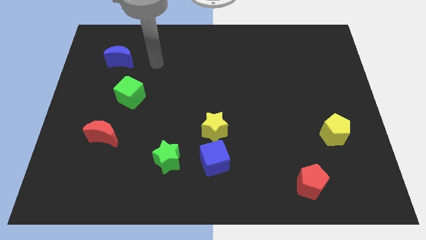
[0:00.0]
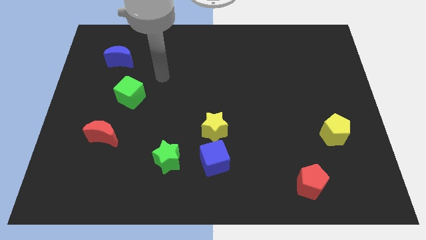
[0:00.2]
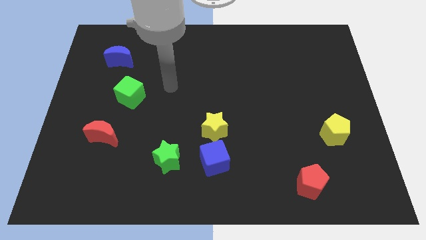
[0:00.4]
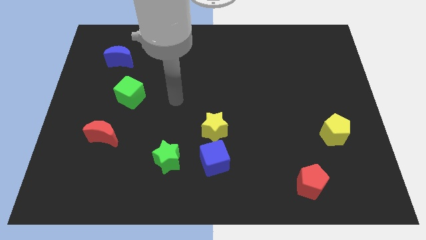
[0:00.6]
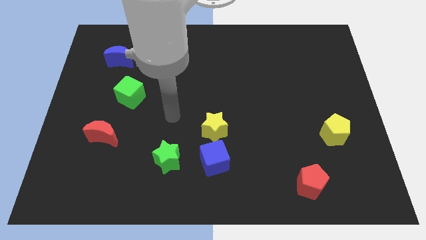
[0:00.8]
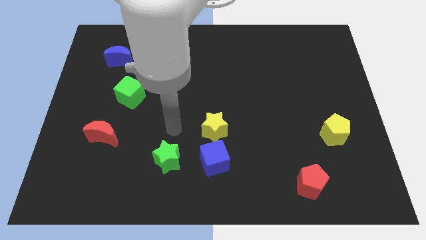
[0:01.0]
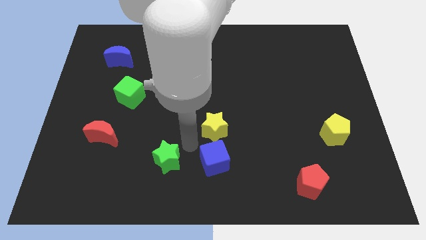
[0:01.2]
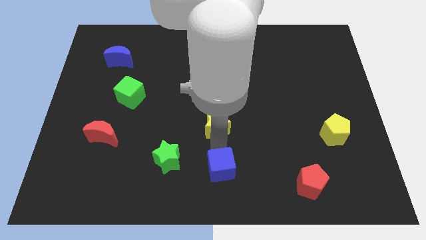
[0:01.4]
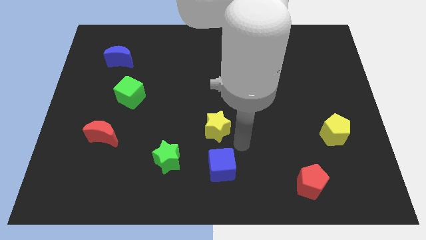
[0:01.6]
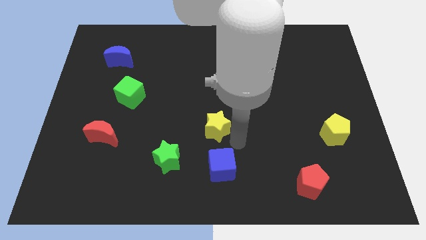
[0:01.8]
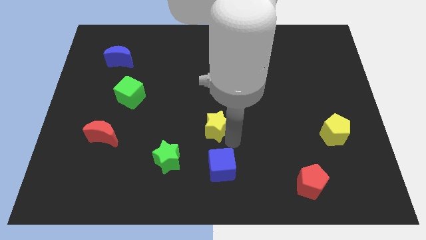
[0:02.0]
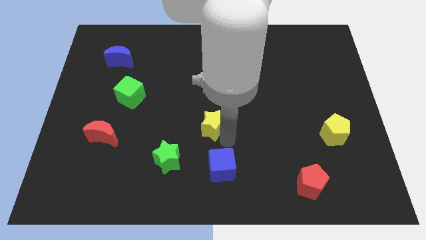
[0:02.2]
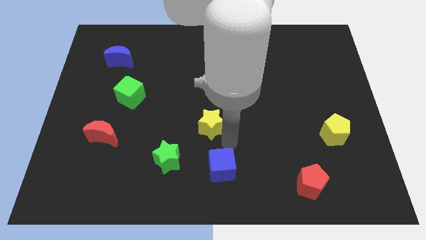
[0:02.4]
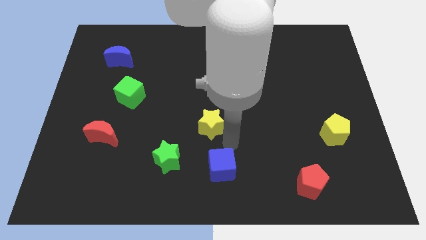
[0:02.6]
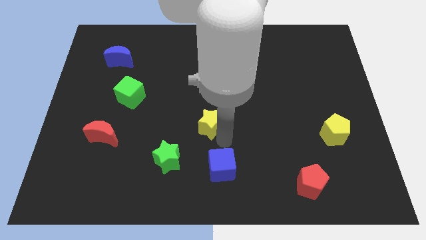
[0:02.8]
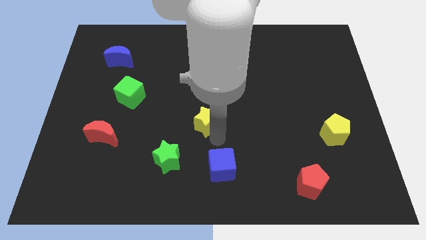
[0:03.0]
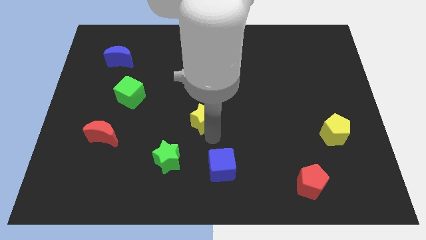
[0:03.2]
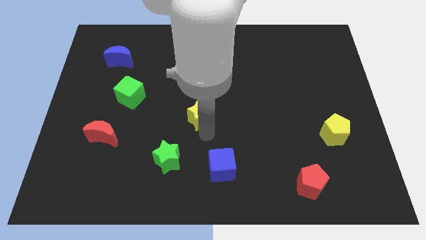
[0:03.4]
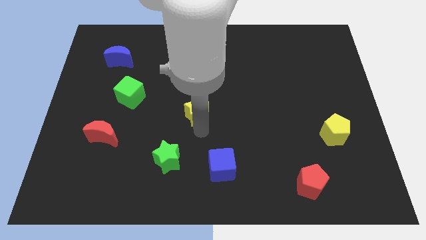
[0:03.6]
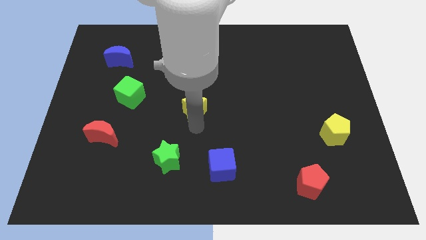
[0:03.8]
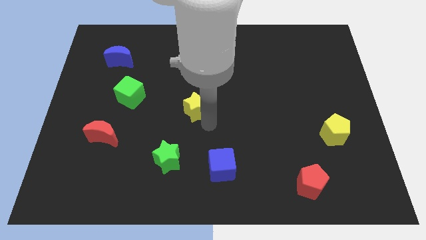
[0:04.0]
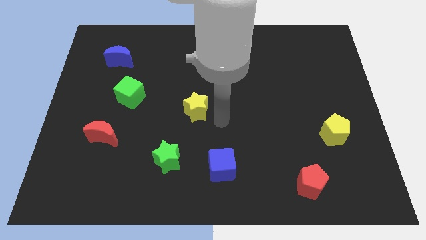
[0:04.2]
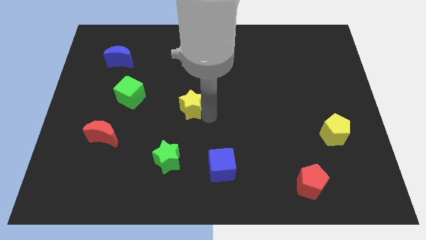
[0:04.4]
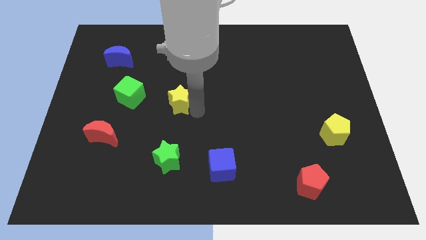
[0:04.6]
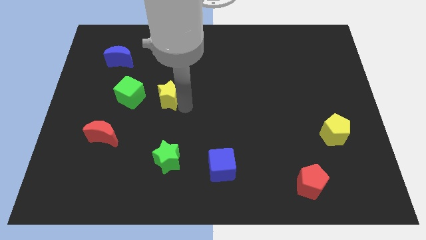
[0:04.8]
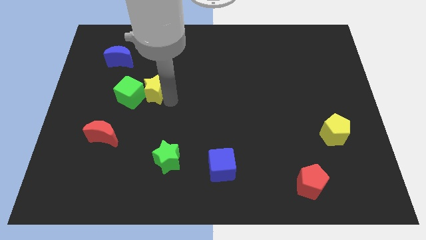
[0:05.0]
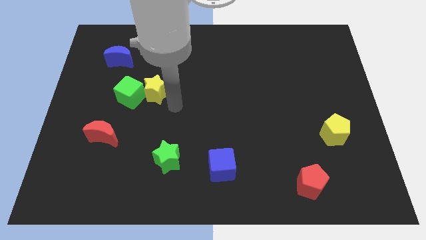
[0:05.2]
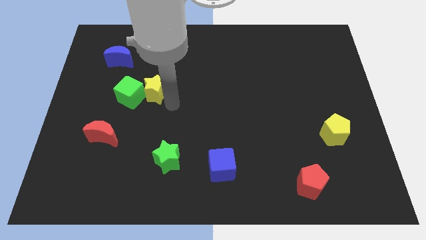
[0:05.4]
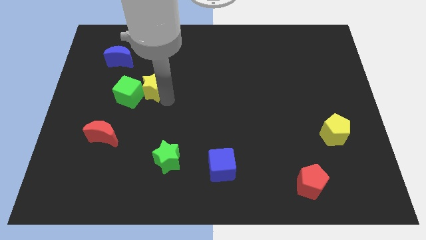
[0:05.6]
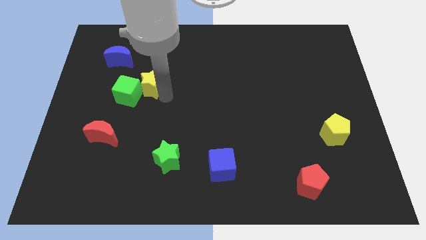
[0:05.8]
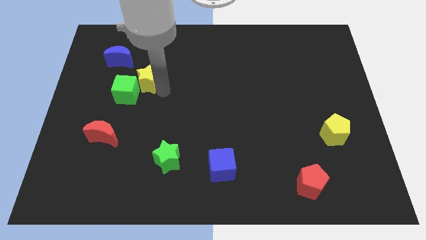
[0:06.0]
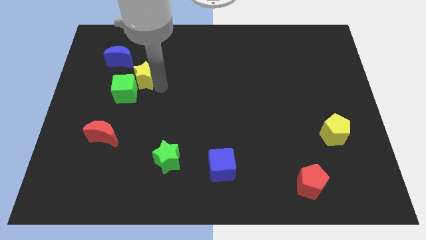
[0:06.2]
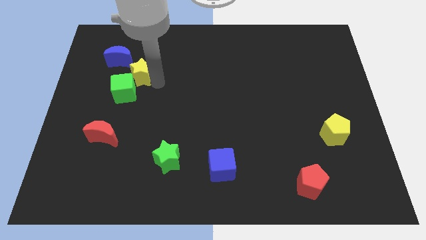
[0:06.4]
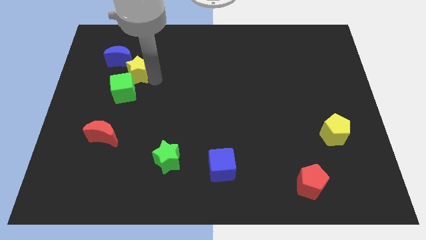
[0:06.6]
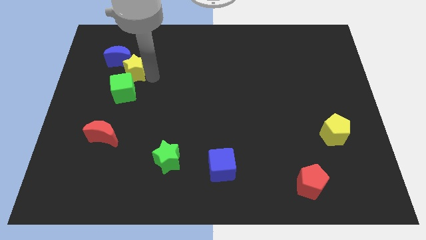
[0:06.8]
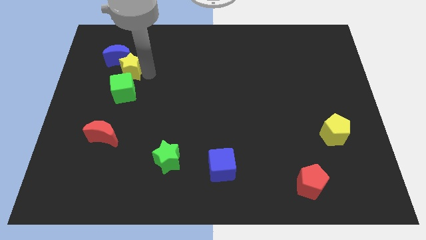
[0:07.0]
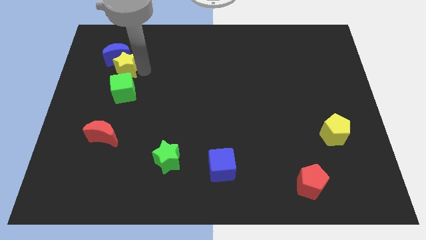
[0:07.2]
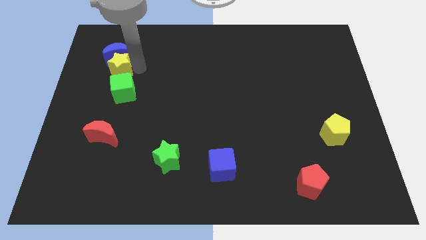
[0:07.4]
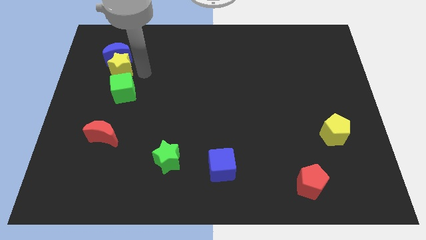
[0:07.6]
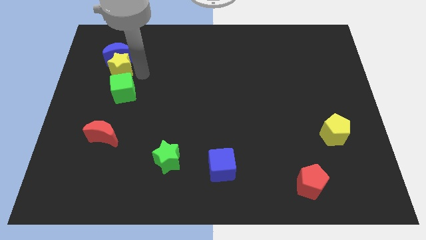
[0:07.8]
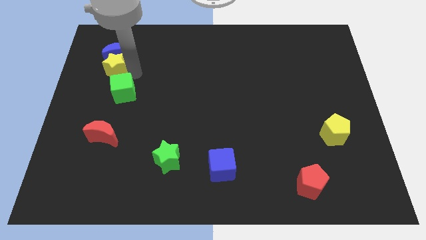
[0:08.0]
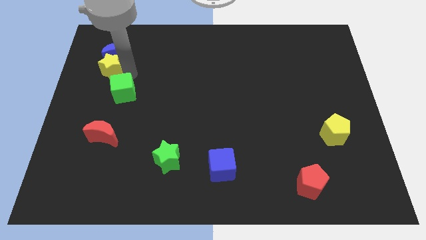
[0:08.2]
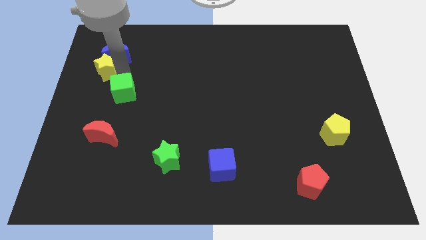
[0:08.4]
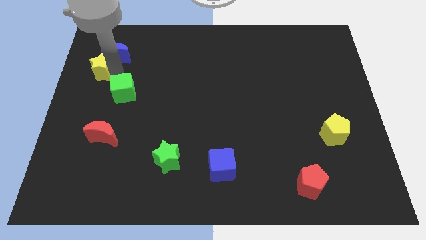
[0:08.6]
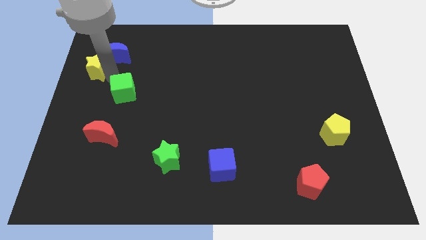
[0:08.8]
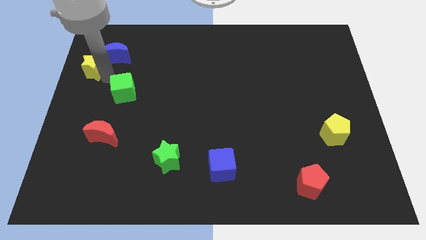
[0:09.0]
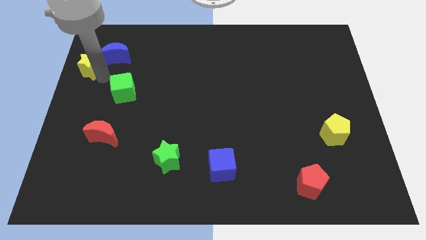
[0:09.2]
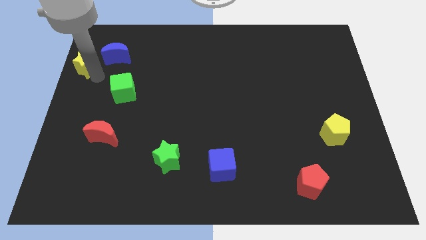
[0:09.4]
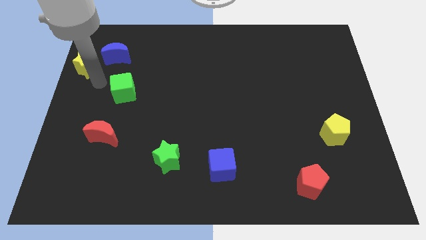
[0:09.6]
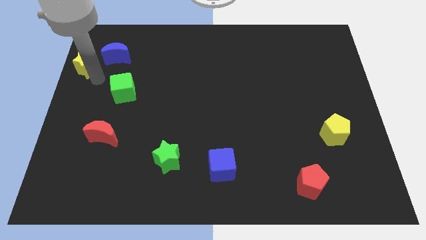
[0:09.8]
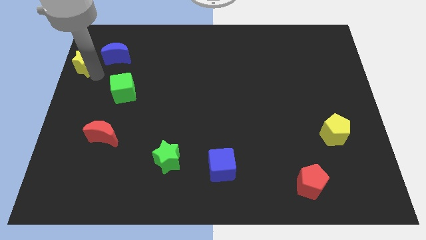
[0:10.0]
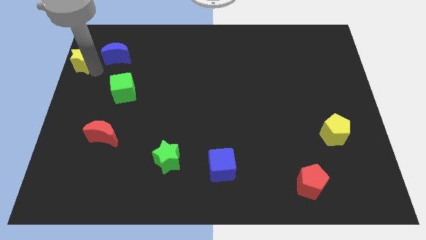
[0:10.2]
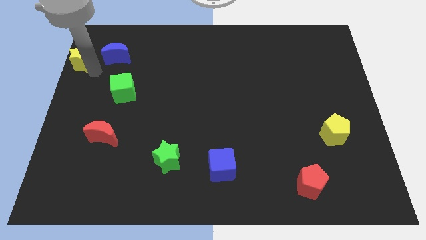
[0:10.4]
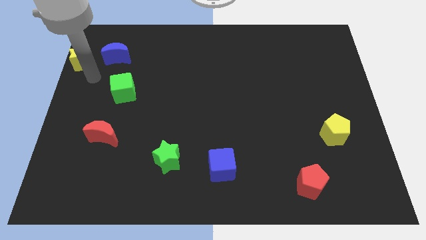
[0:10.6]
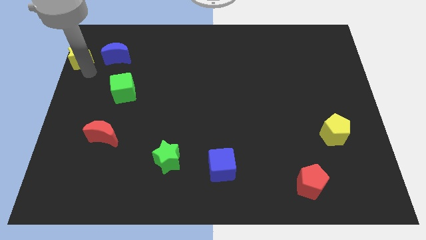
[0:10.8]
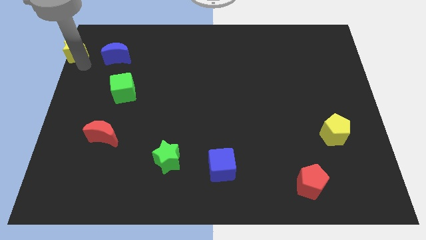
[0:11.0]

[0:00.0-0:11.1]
put the yellow star to the upper left corner
